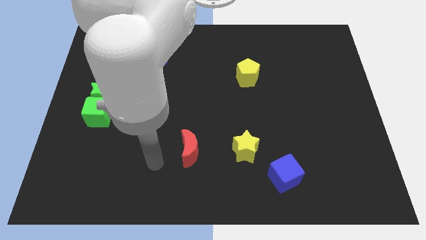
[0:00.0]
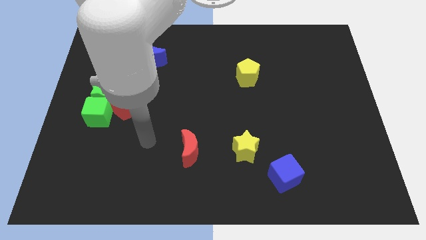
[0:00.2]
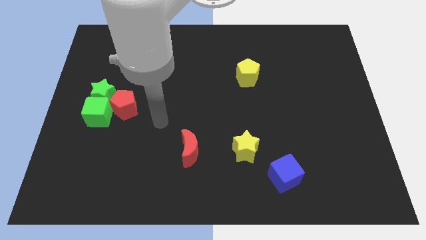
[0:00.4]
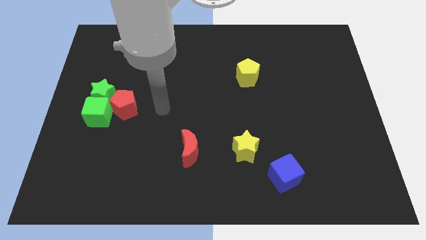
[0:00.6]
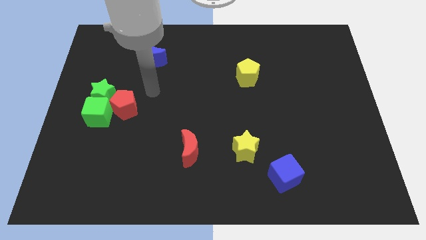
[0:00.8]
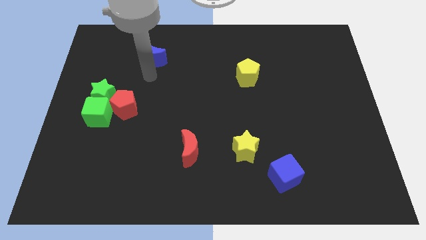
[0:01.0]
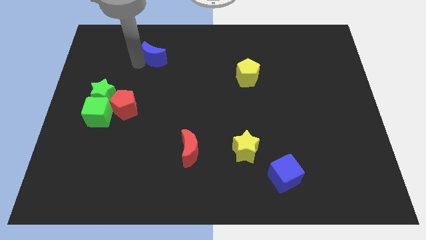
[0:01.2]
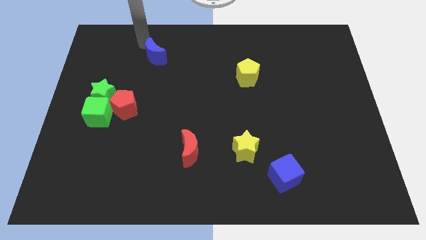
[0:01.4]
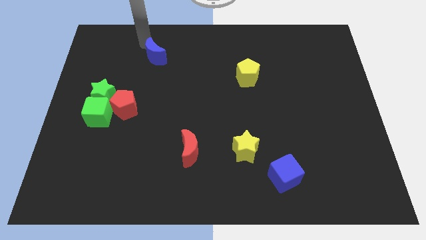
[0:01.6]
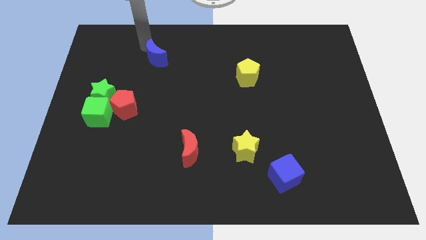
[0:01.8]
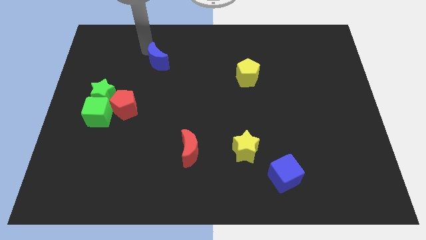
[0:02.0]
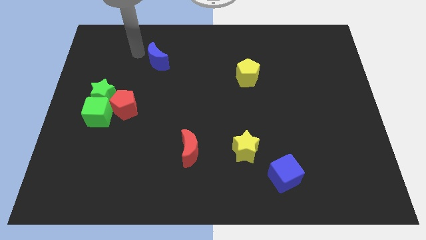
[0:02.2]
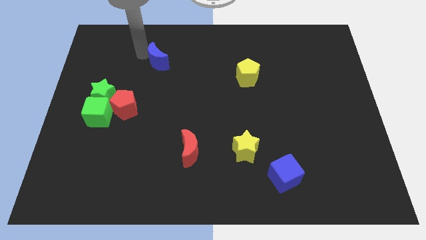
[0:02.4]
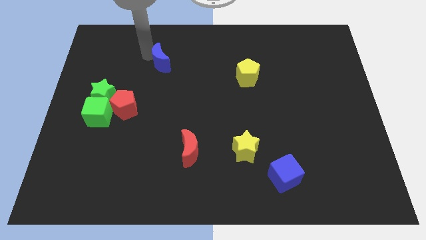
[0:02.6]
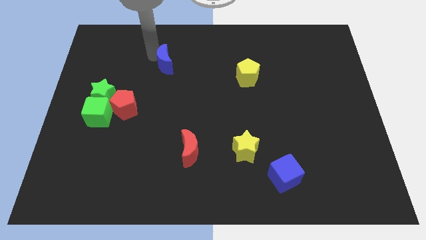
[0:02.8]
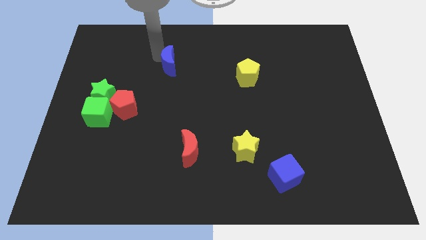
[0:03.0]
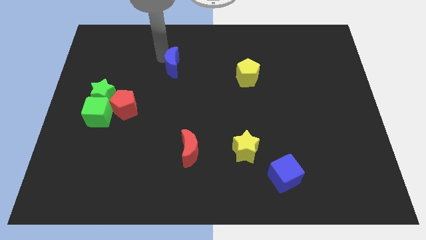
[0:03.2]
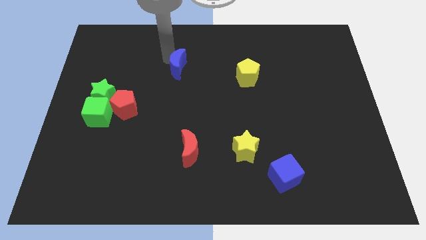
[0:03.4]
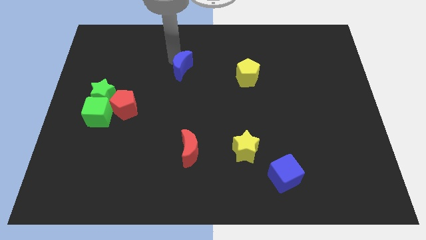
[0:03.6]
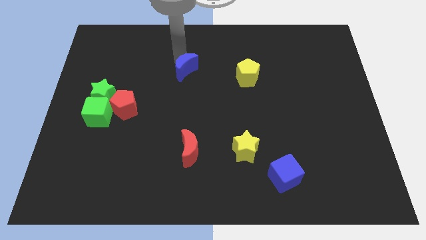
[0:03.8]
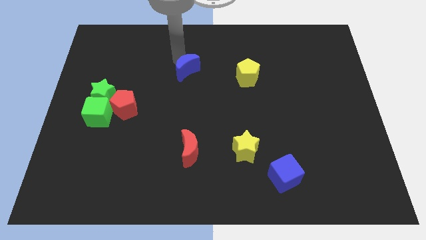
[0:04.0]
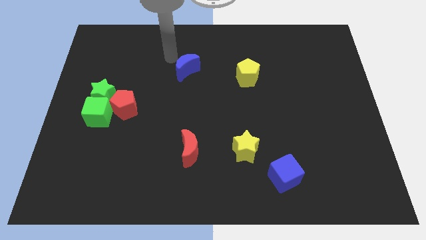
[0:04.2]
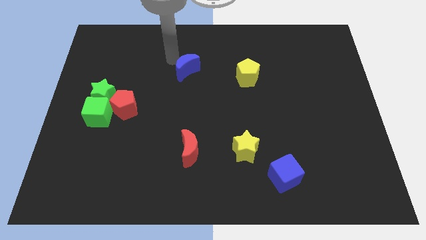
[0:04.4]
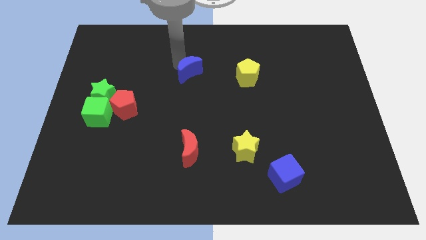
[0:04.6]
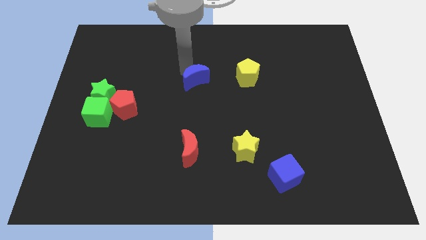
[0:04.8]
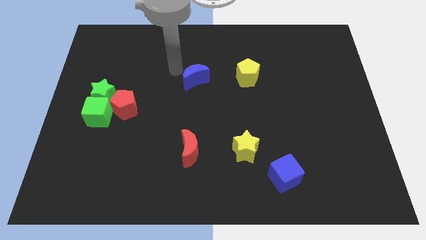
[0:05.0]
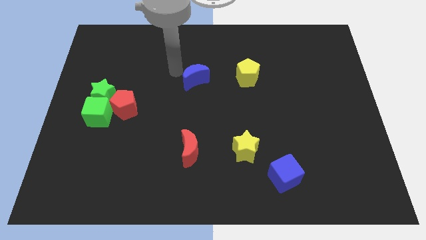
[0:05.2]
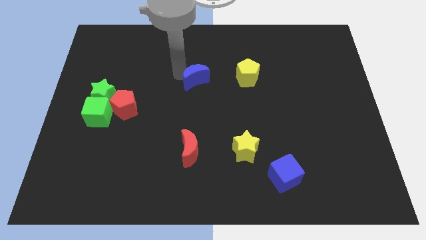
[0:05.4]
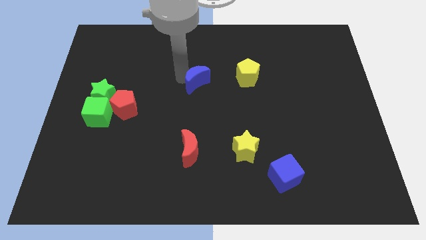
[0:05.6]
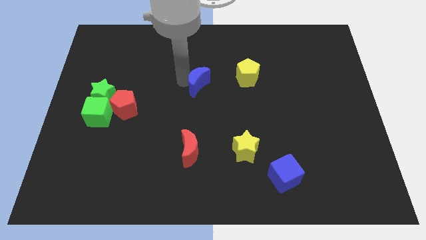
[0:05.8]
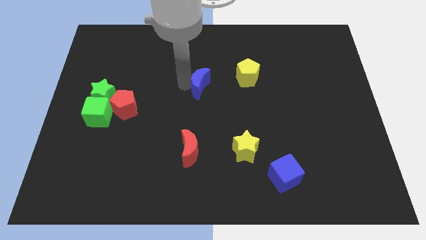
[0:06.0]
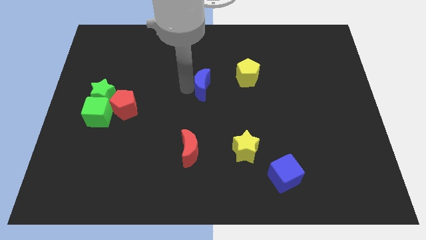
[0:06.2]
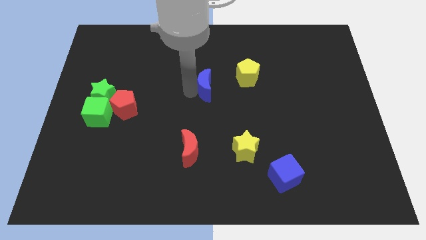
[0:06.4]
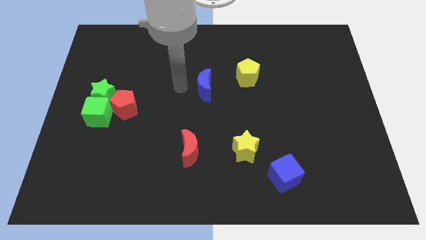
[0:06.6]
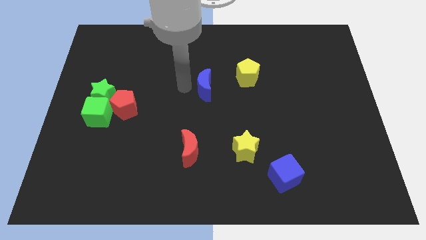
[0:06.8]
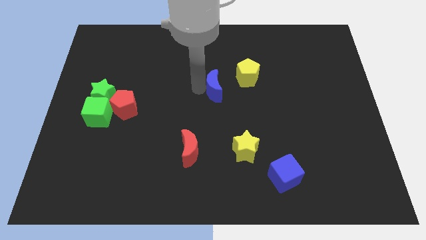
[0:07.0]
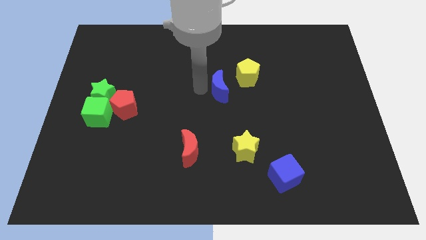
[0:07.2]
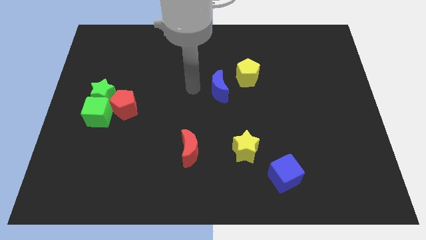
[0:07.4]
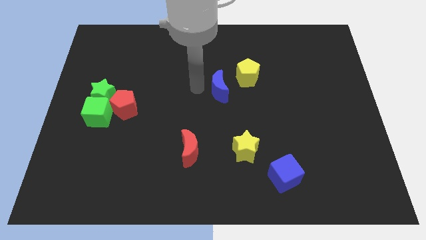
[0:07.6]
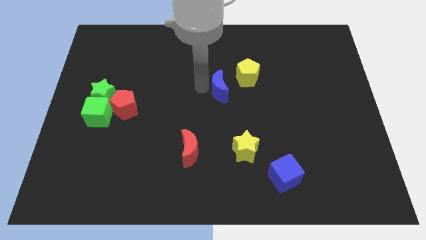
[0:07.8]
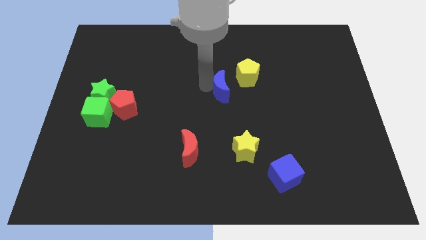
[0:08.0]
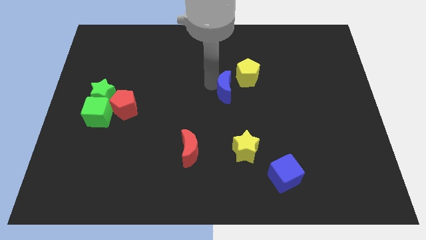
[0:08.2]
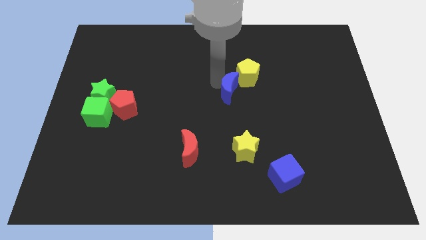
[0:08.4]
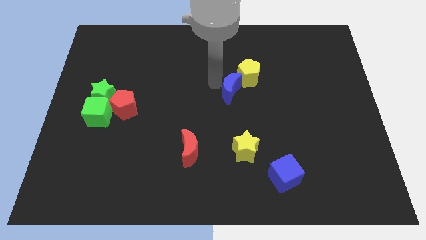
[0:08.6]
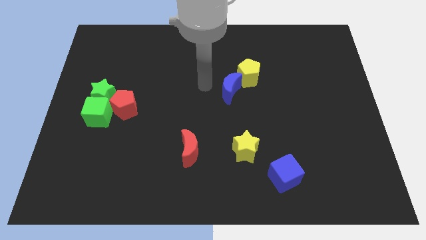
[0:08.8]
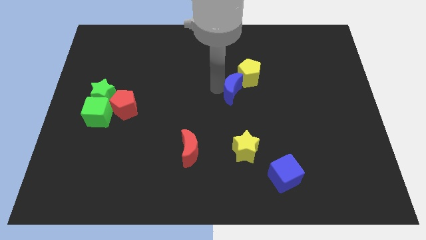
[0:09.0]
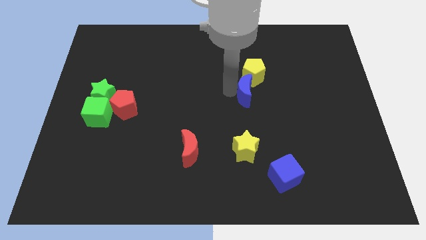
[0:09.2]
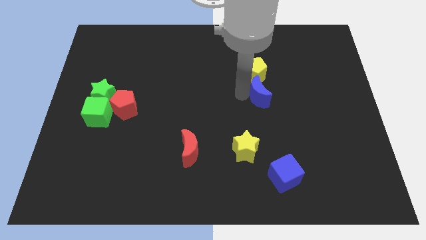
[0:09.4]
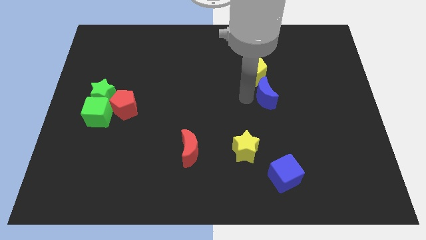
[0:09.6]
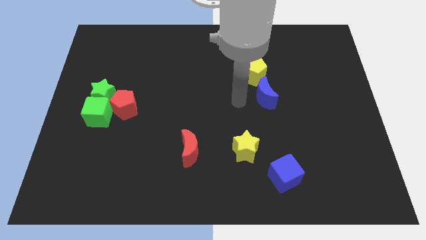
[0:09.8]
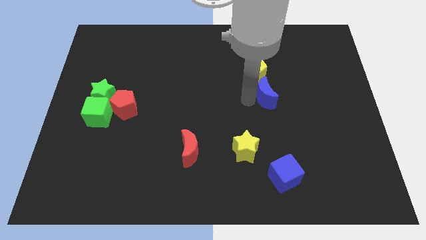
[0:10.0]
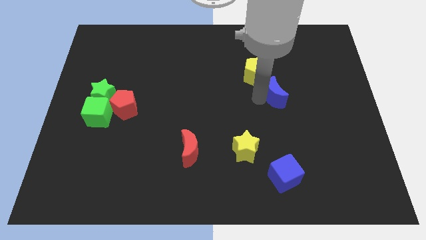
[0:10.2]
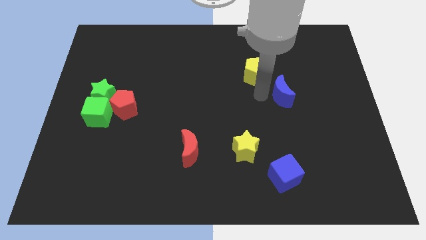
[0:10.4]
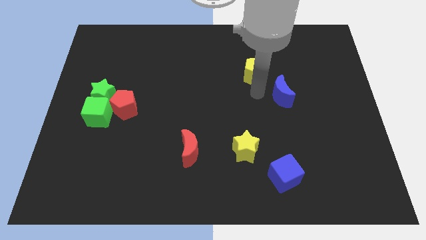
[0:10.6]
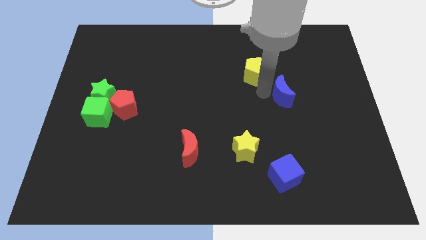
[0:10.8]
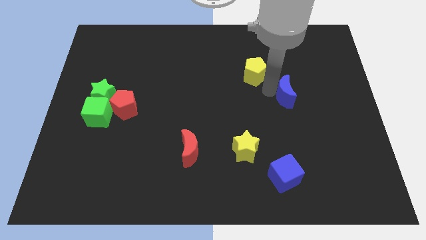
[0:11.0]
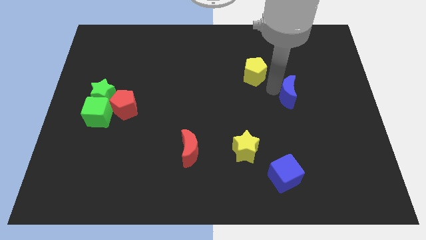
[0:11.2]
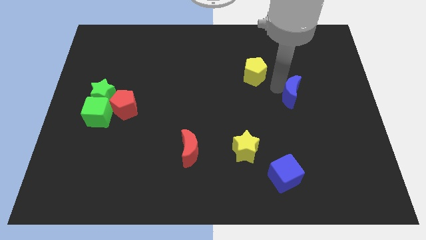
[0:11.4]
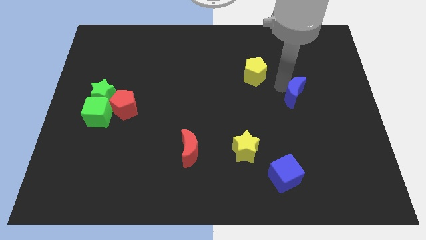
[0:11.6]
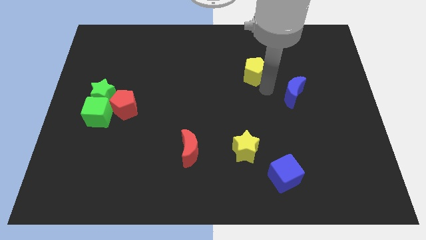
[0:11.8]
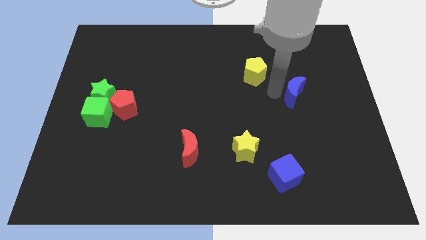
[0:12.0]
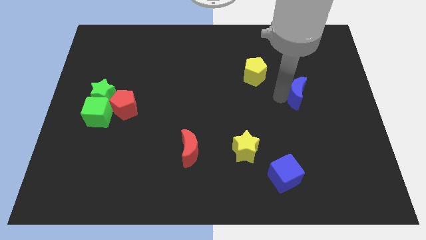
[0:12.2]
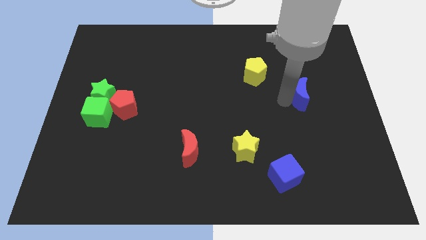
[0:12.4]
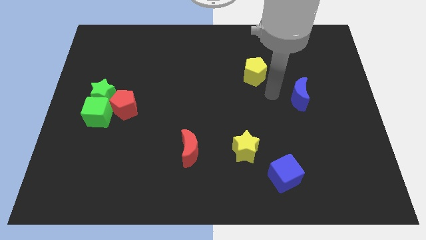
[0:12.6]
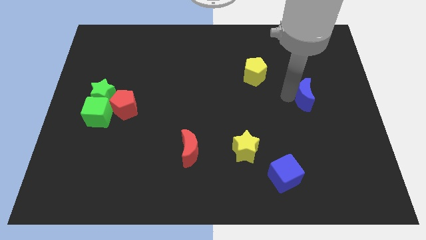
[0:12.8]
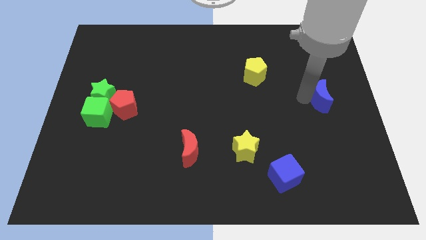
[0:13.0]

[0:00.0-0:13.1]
slide the blue moon to the center right
